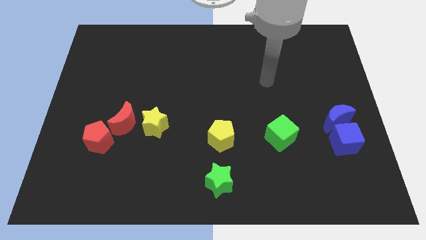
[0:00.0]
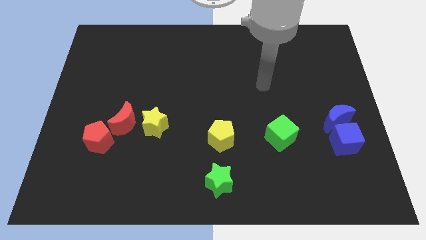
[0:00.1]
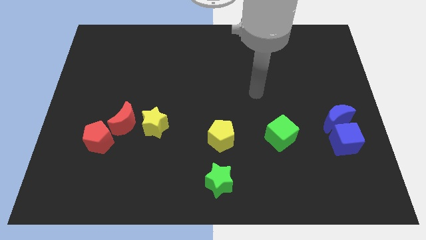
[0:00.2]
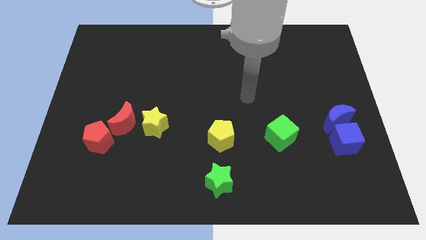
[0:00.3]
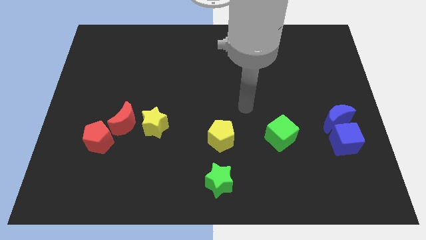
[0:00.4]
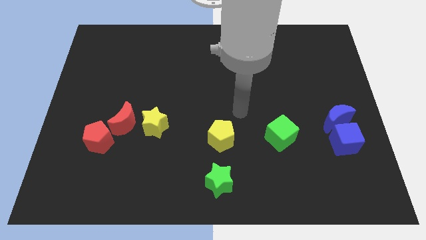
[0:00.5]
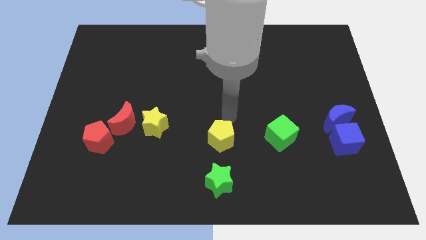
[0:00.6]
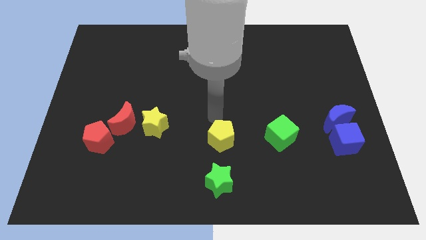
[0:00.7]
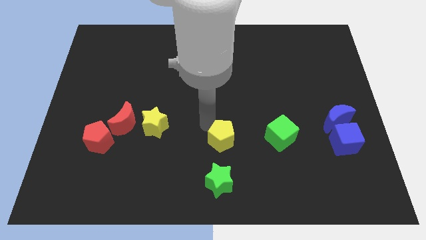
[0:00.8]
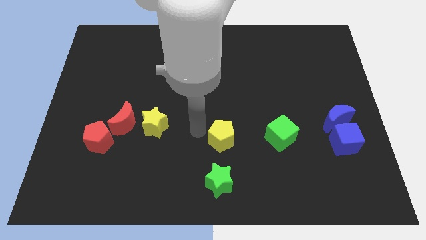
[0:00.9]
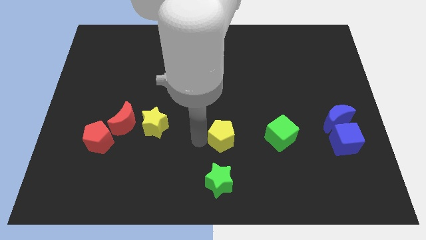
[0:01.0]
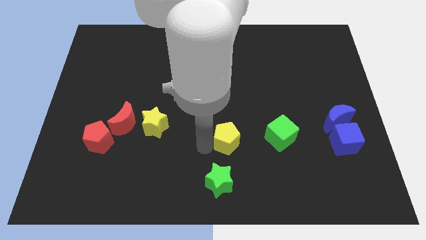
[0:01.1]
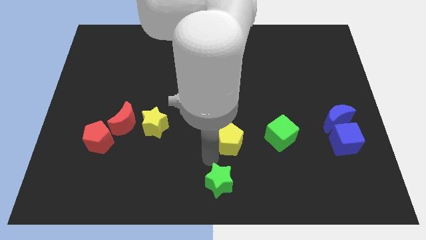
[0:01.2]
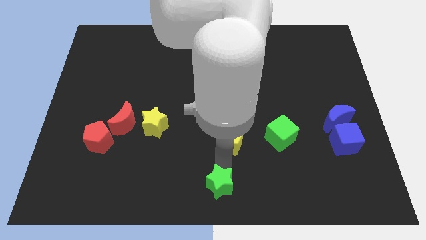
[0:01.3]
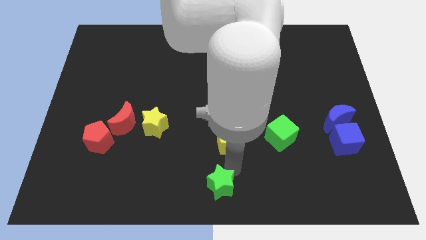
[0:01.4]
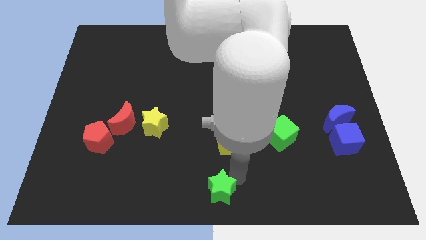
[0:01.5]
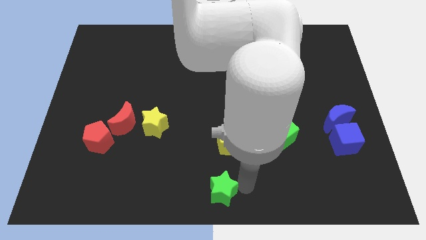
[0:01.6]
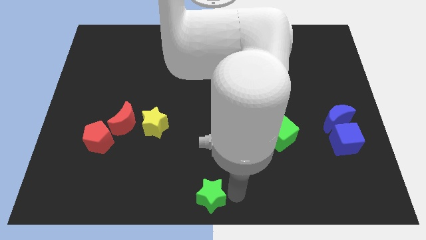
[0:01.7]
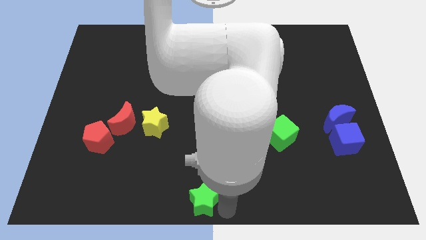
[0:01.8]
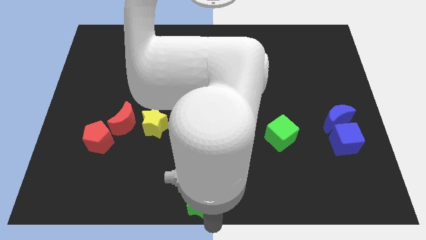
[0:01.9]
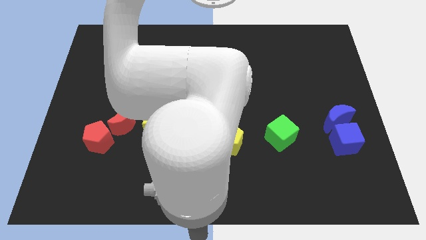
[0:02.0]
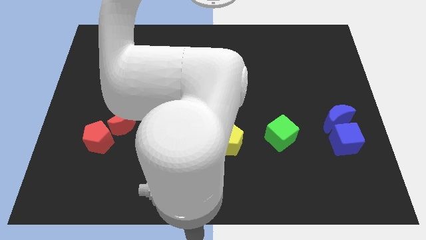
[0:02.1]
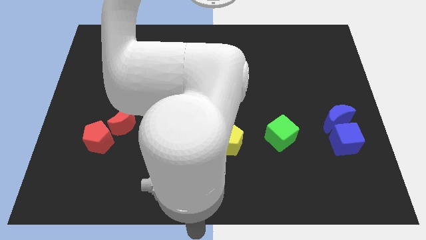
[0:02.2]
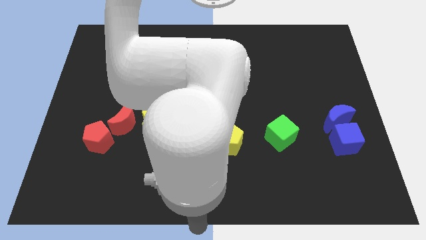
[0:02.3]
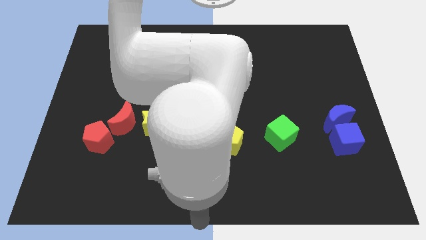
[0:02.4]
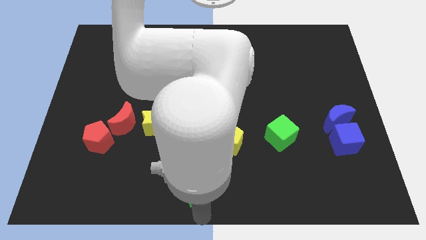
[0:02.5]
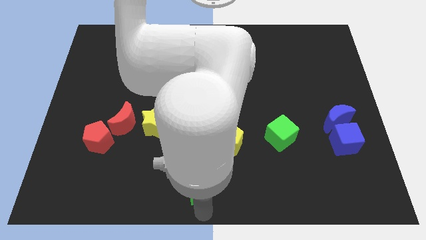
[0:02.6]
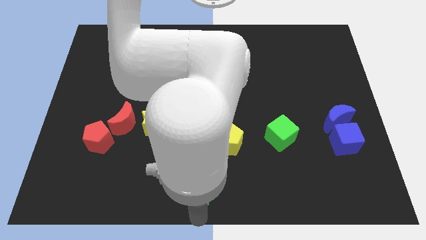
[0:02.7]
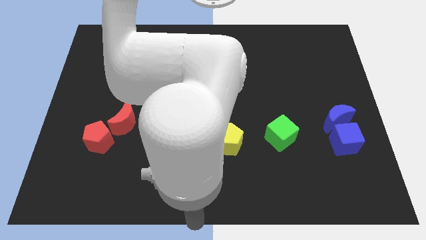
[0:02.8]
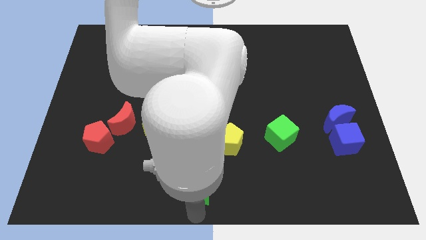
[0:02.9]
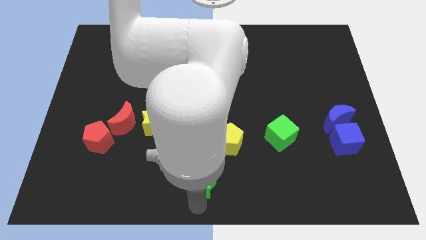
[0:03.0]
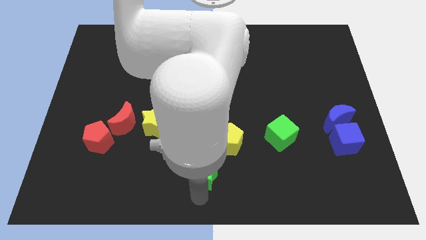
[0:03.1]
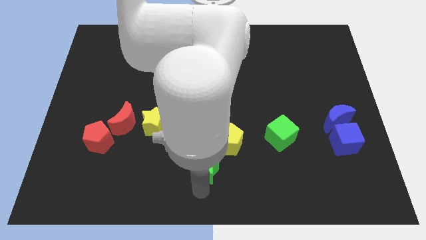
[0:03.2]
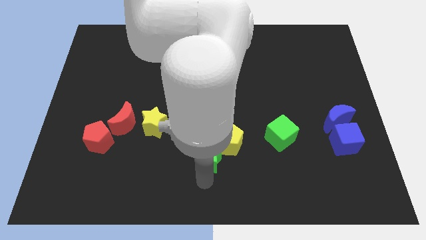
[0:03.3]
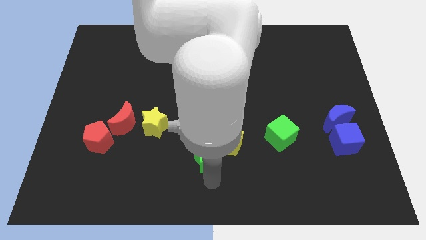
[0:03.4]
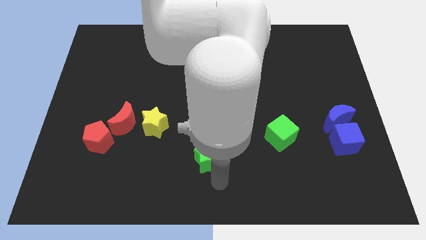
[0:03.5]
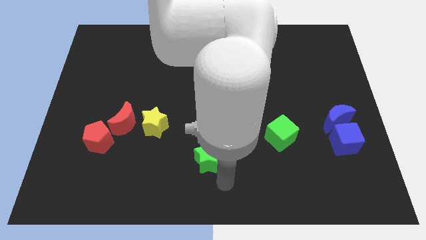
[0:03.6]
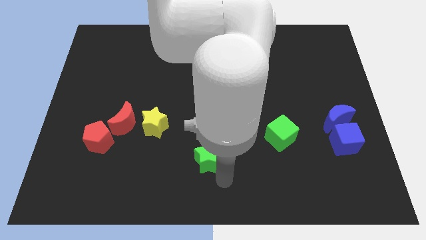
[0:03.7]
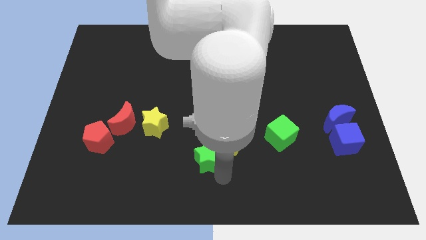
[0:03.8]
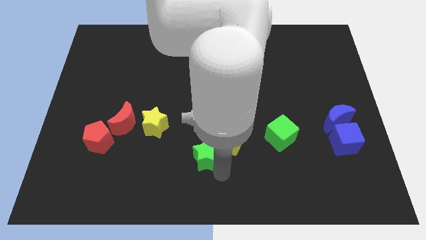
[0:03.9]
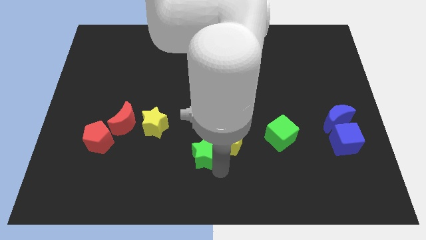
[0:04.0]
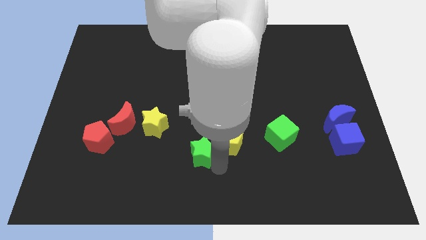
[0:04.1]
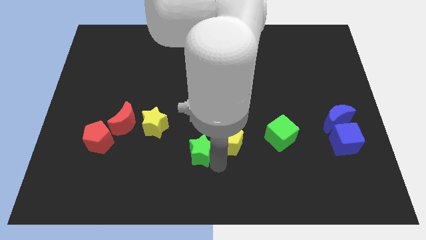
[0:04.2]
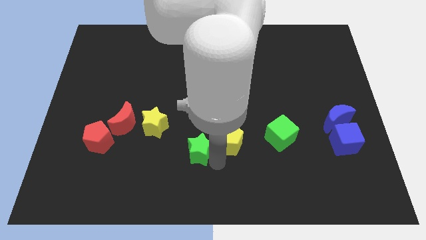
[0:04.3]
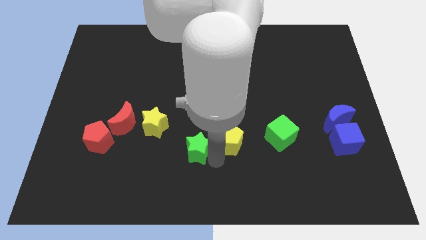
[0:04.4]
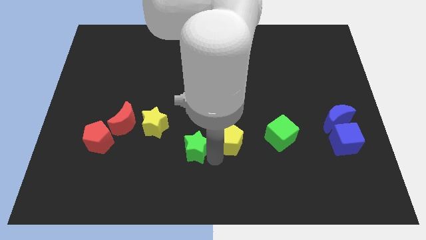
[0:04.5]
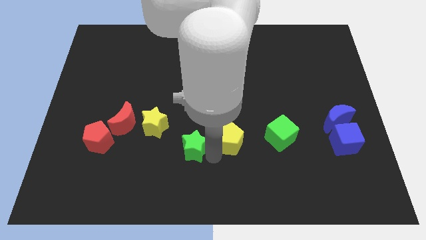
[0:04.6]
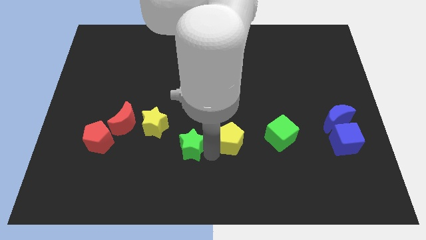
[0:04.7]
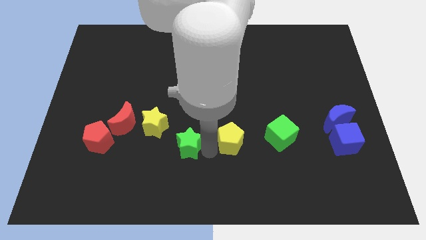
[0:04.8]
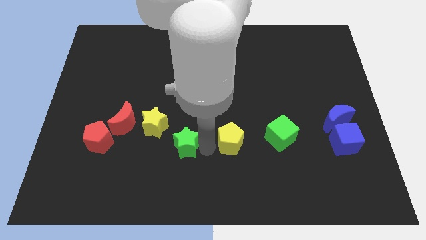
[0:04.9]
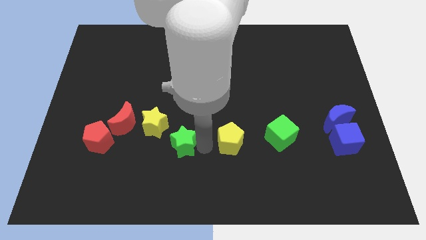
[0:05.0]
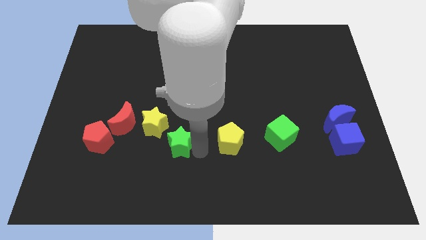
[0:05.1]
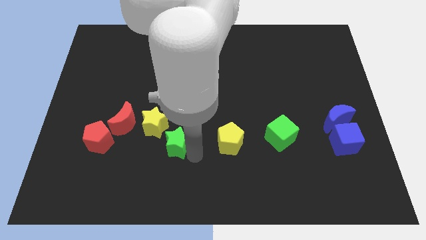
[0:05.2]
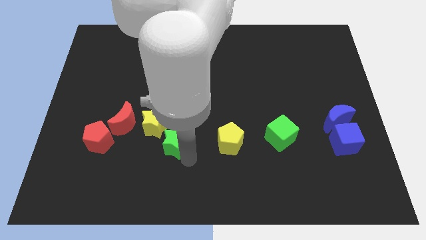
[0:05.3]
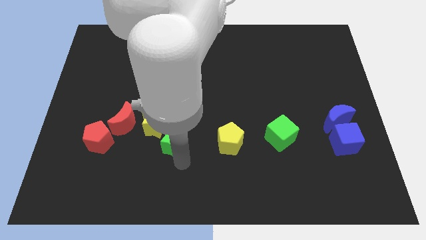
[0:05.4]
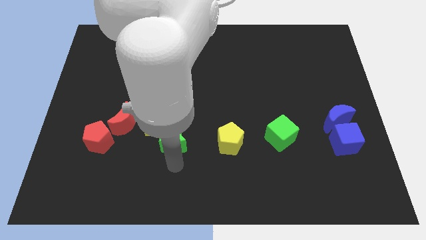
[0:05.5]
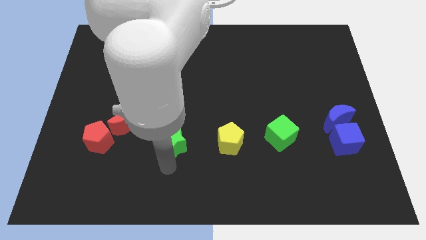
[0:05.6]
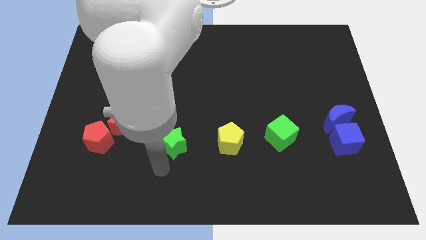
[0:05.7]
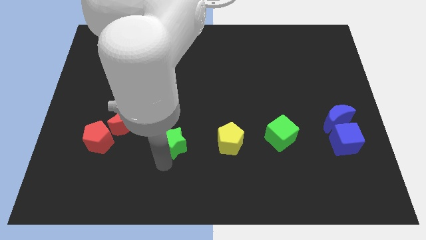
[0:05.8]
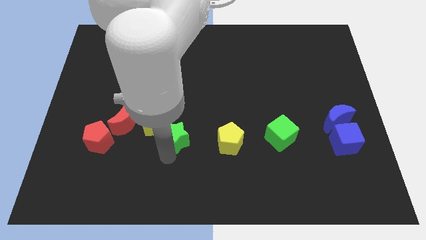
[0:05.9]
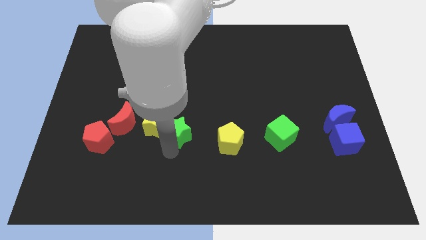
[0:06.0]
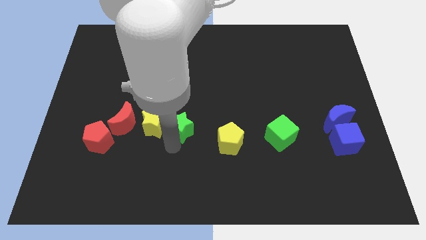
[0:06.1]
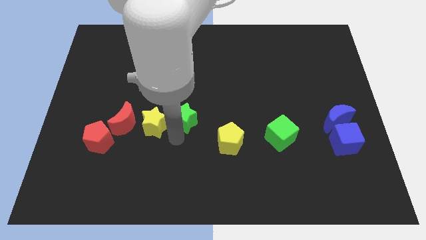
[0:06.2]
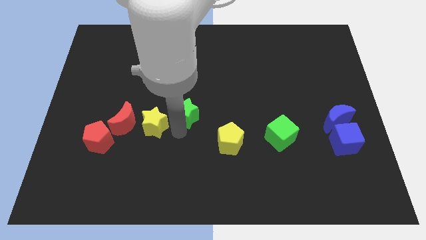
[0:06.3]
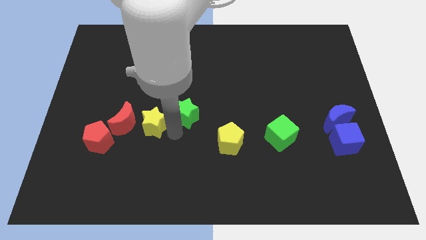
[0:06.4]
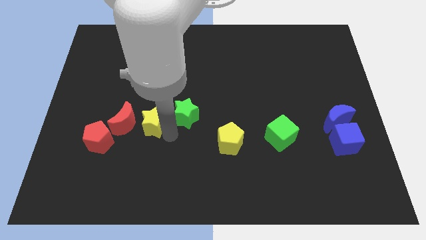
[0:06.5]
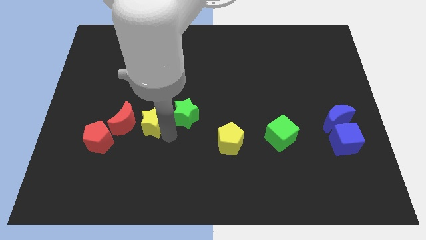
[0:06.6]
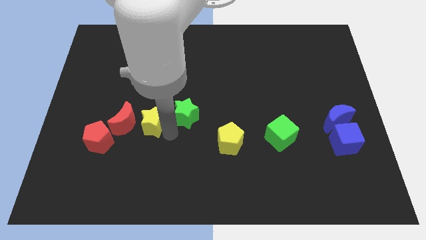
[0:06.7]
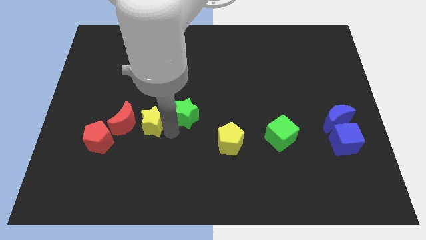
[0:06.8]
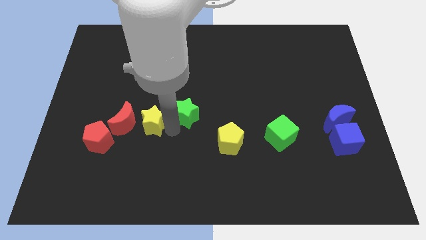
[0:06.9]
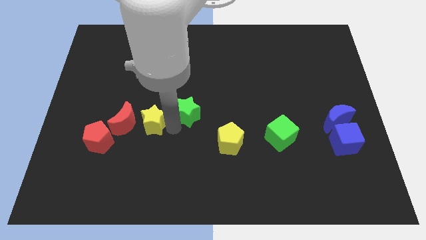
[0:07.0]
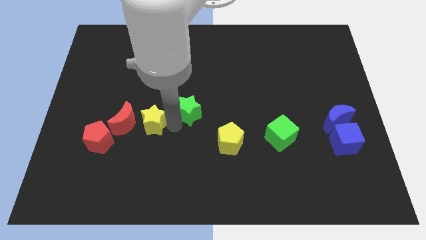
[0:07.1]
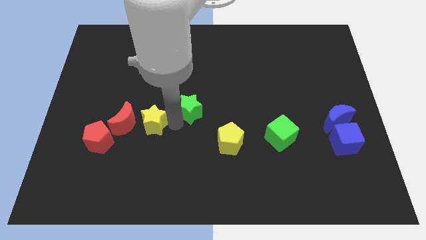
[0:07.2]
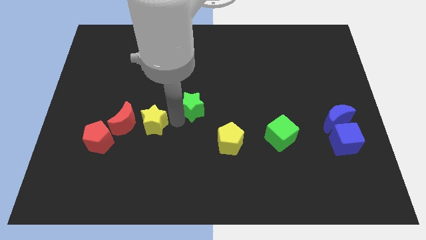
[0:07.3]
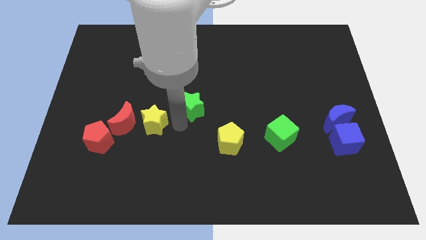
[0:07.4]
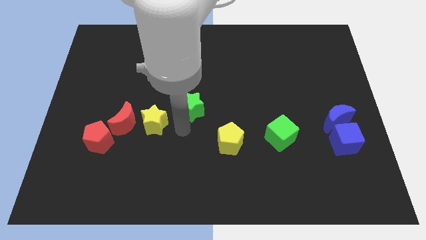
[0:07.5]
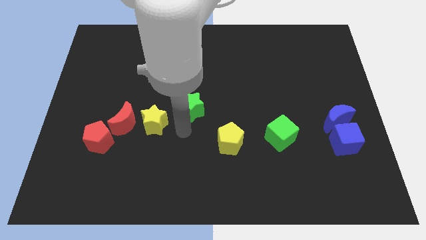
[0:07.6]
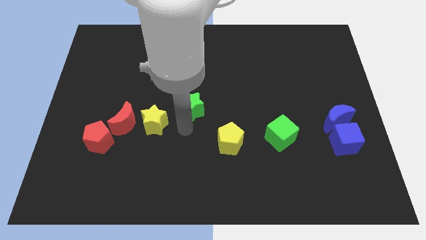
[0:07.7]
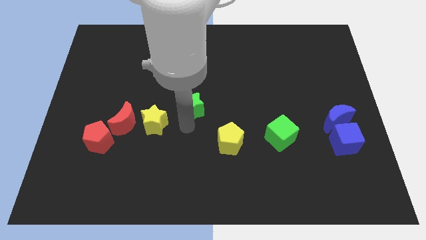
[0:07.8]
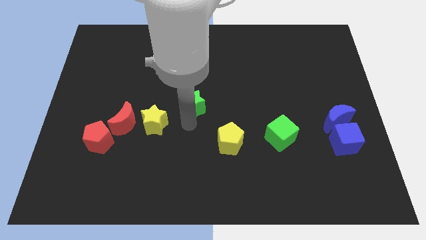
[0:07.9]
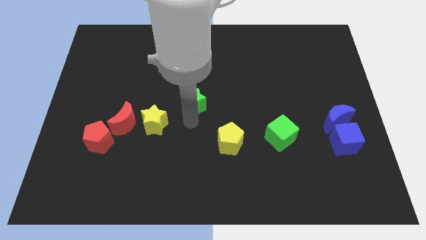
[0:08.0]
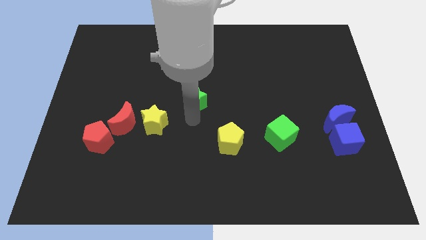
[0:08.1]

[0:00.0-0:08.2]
move the green star up
